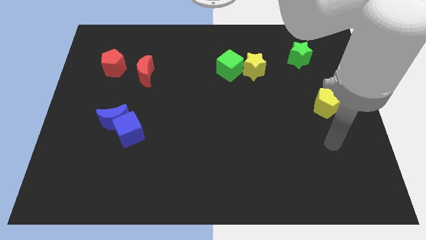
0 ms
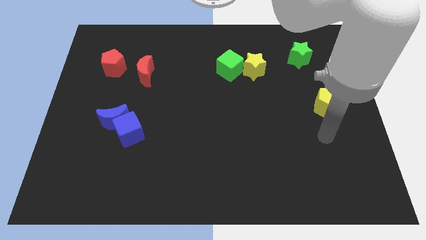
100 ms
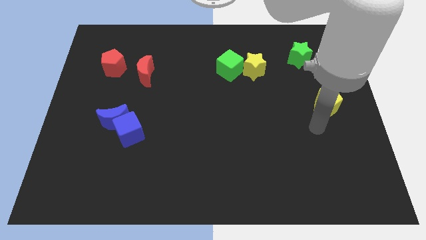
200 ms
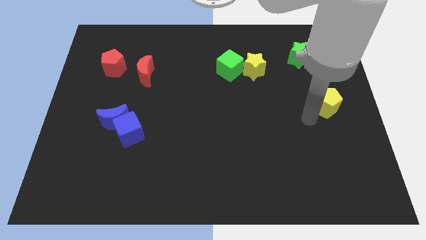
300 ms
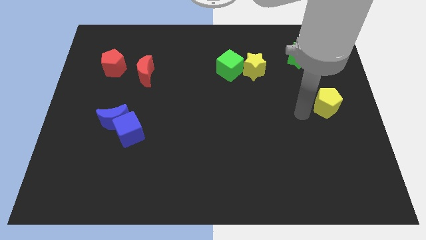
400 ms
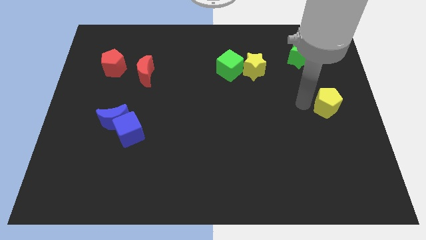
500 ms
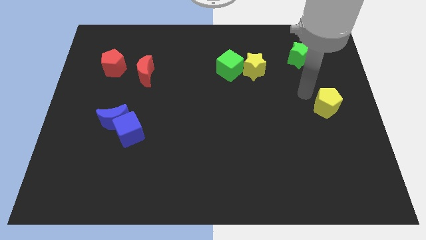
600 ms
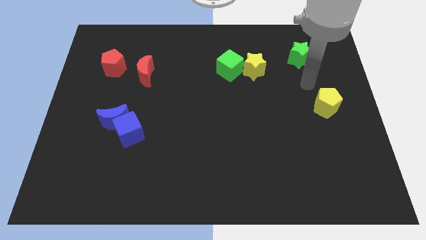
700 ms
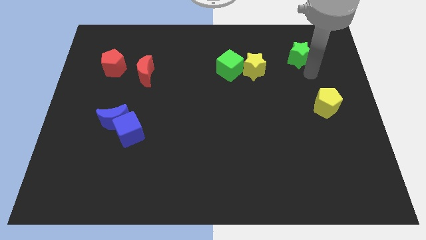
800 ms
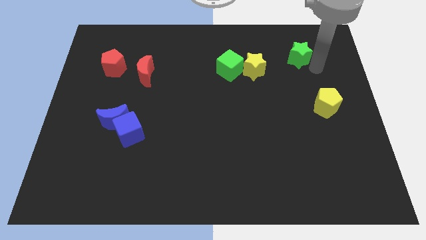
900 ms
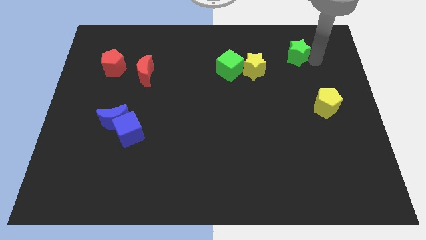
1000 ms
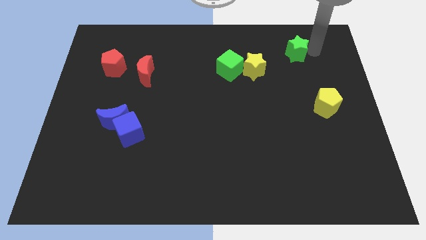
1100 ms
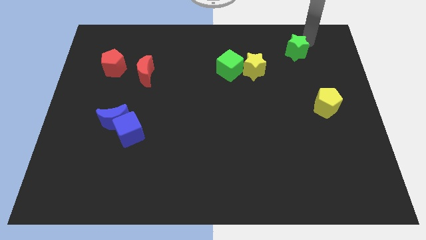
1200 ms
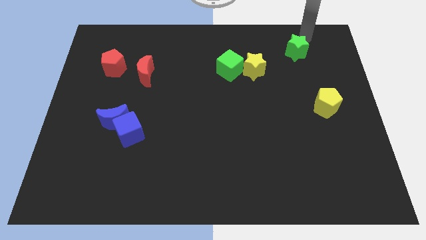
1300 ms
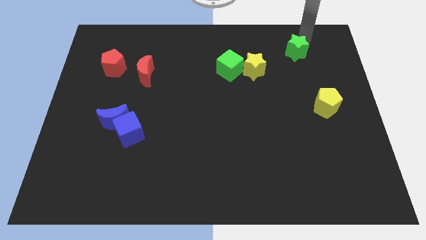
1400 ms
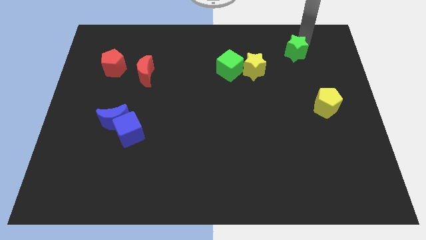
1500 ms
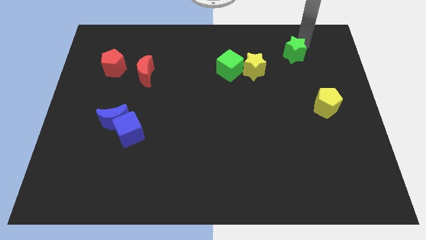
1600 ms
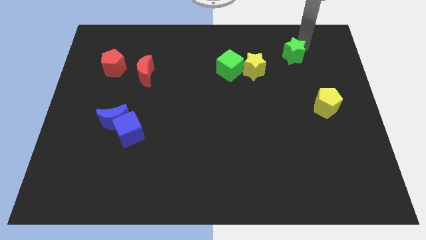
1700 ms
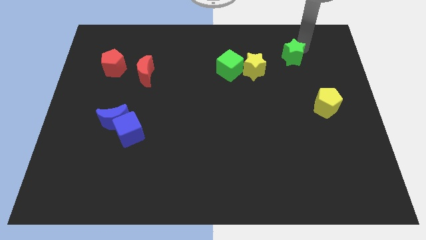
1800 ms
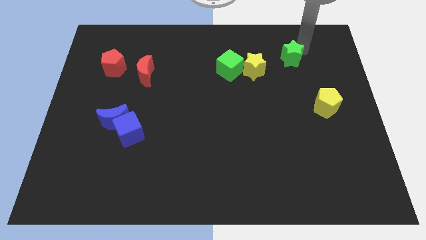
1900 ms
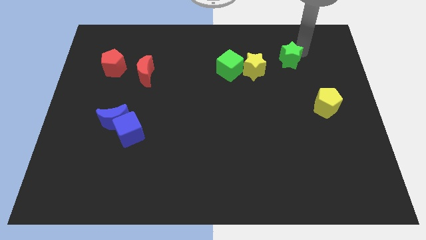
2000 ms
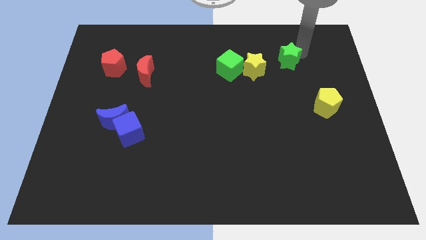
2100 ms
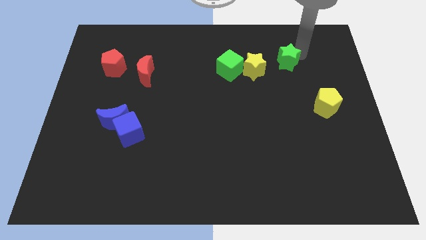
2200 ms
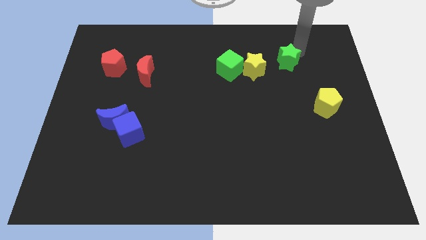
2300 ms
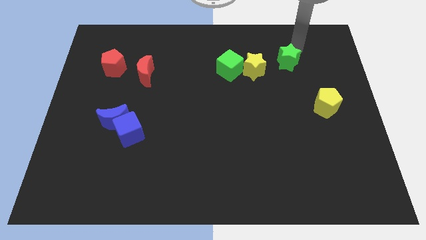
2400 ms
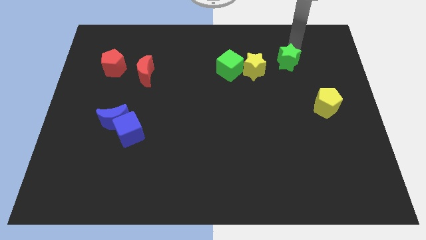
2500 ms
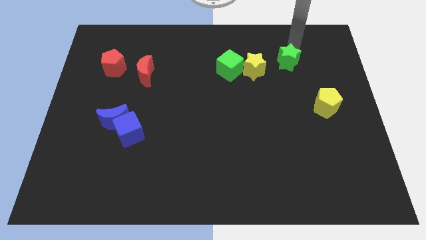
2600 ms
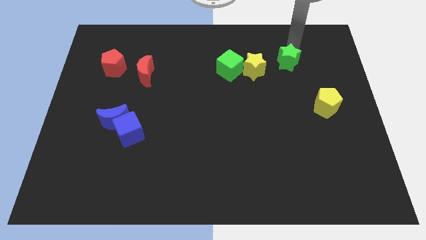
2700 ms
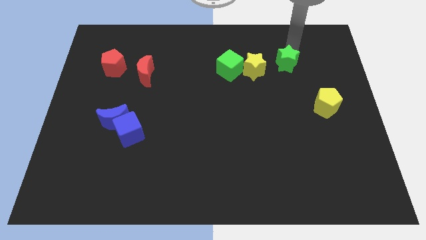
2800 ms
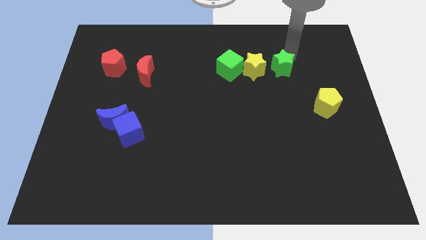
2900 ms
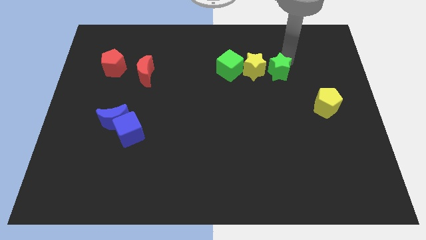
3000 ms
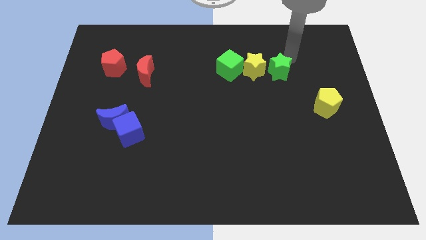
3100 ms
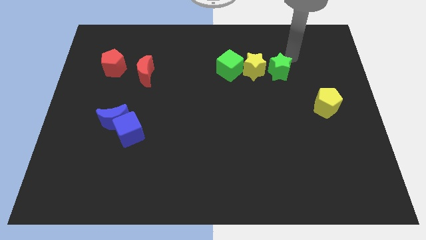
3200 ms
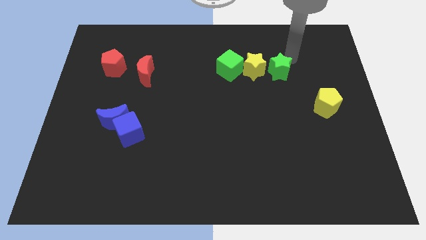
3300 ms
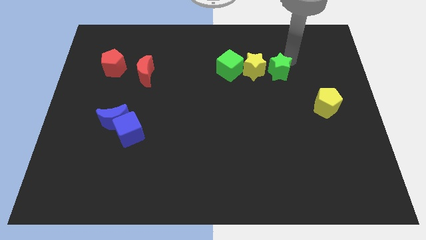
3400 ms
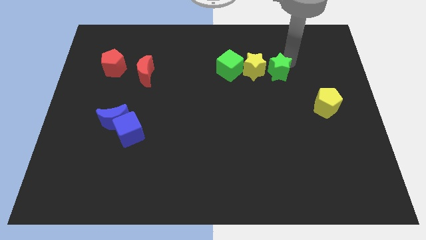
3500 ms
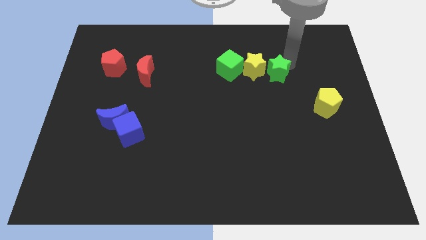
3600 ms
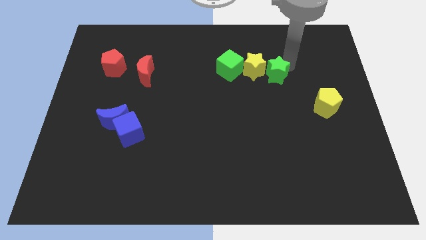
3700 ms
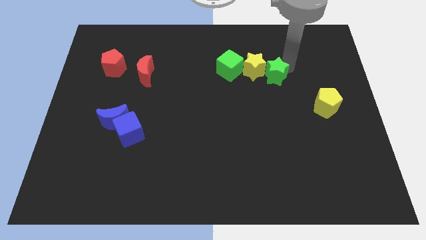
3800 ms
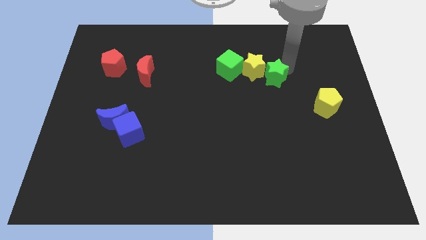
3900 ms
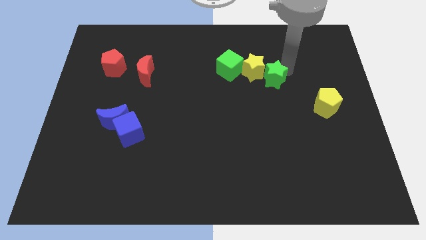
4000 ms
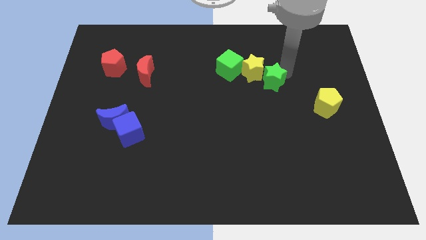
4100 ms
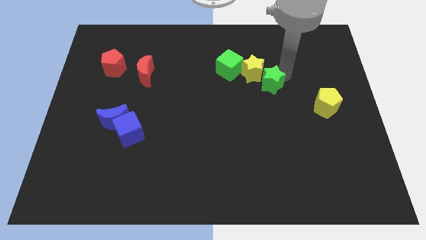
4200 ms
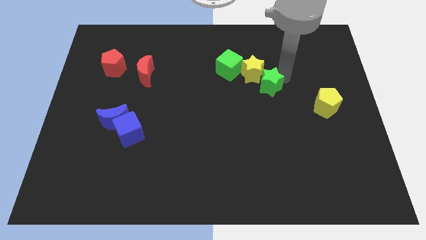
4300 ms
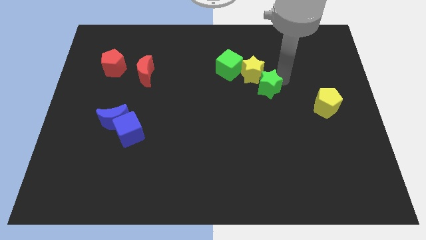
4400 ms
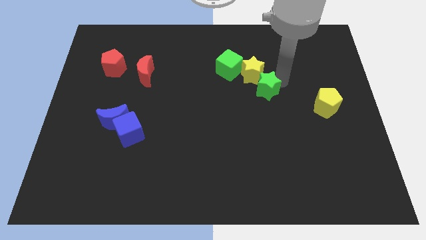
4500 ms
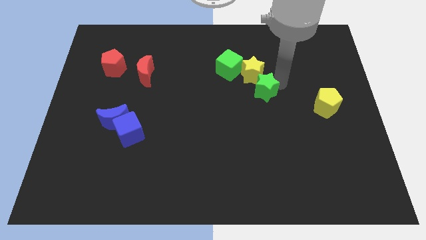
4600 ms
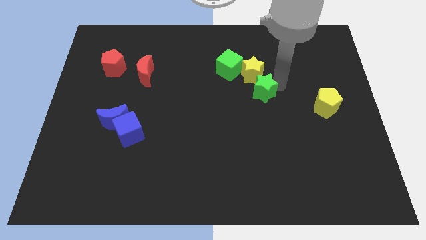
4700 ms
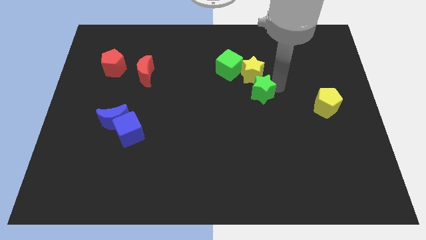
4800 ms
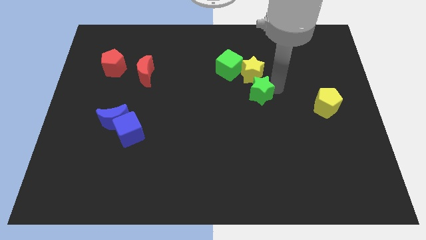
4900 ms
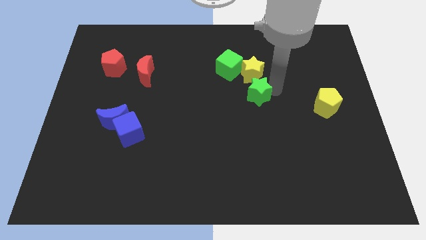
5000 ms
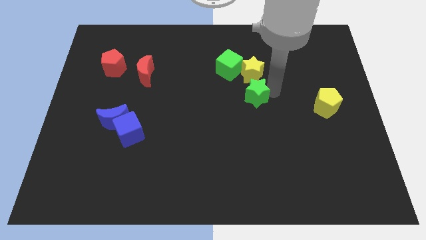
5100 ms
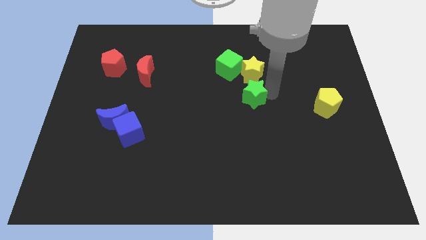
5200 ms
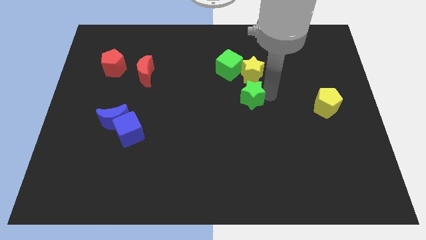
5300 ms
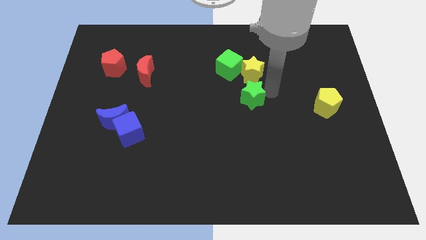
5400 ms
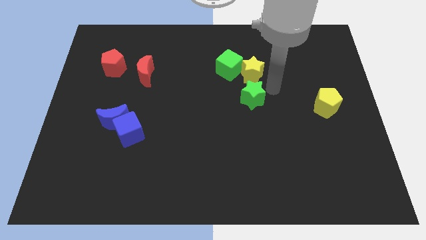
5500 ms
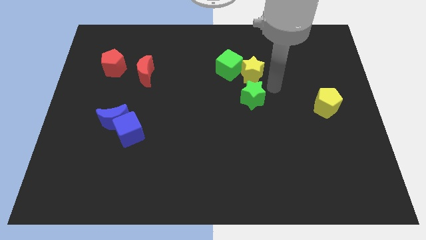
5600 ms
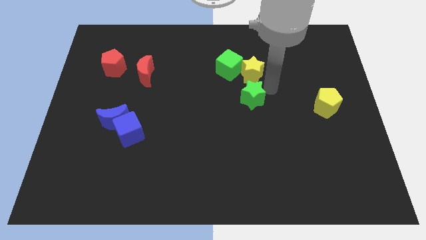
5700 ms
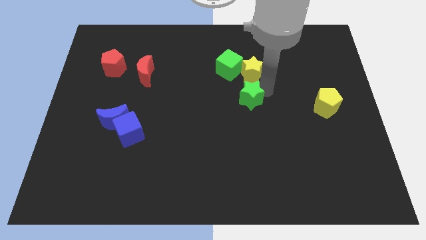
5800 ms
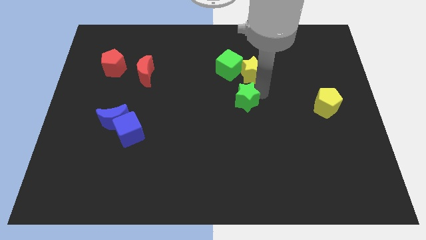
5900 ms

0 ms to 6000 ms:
move the green star down and left

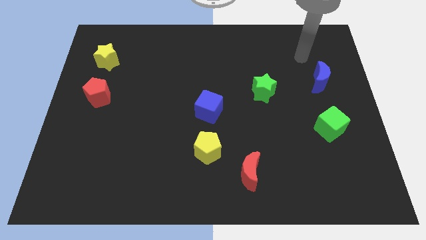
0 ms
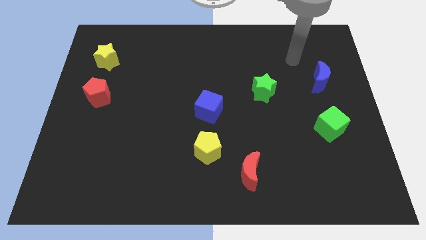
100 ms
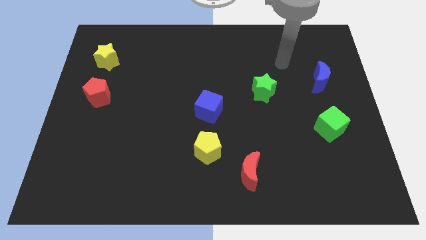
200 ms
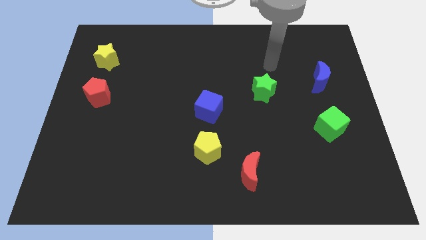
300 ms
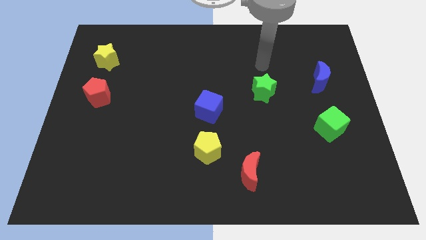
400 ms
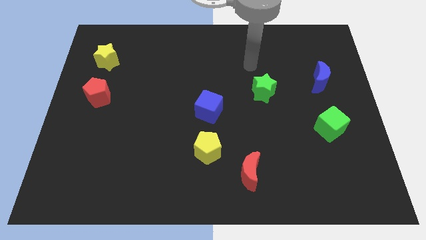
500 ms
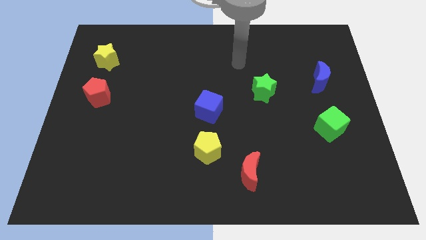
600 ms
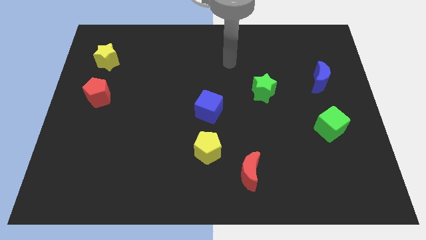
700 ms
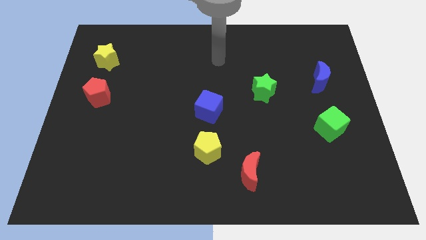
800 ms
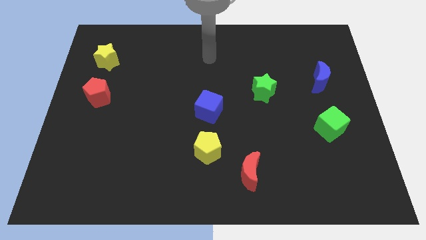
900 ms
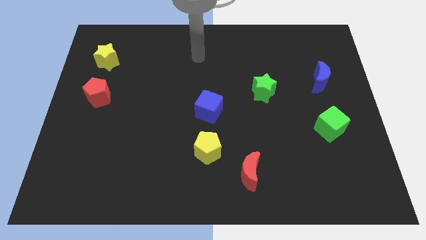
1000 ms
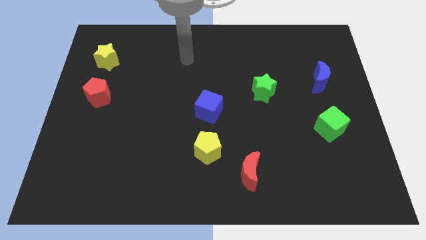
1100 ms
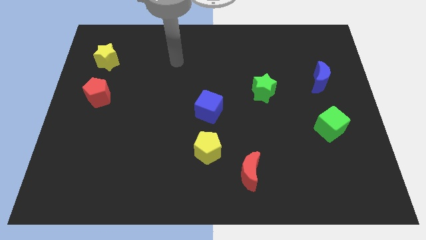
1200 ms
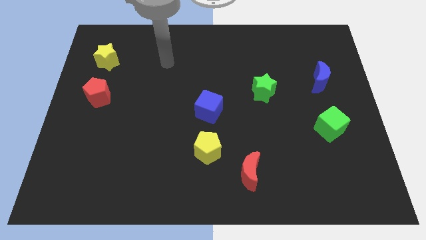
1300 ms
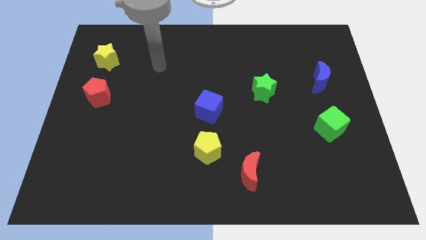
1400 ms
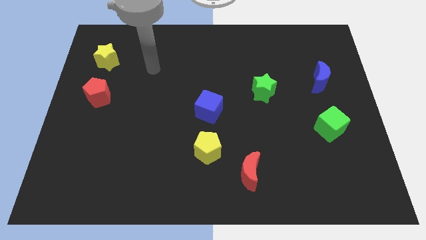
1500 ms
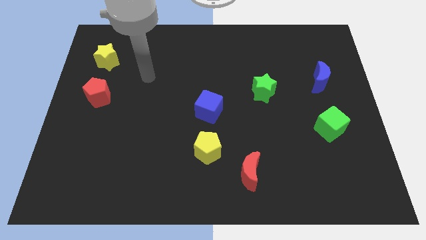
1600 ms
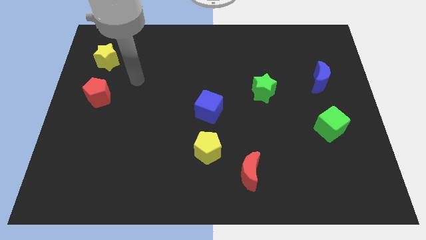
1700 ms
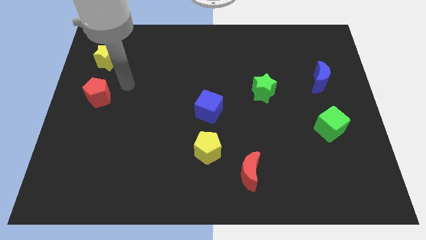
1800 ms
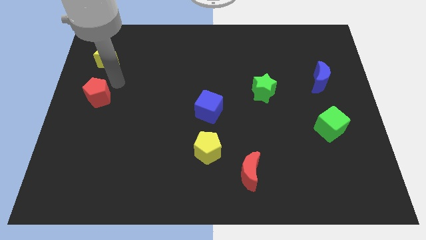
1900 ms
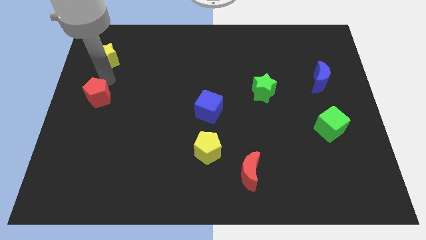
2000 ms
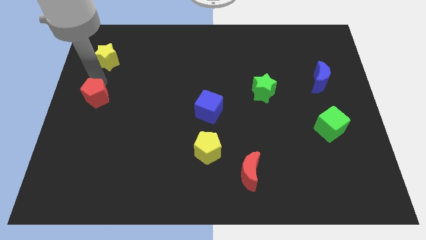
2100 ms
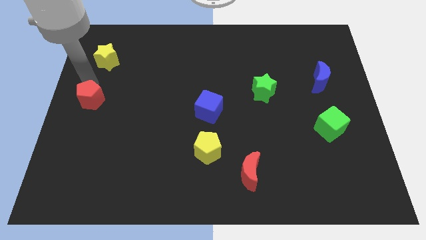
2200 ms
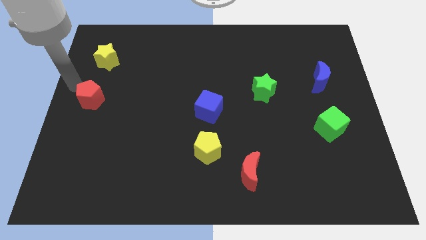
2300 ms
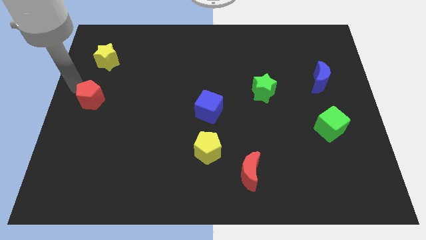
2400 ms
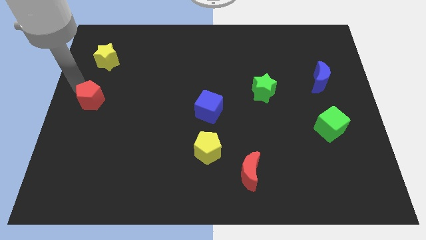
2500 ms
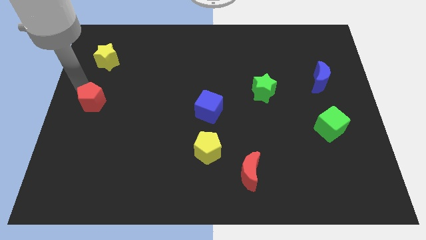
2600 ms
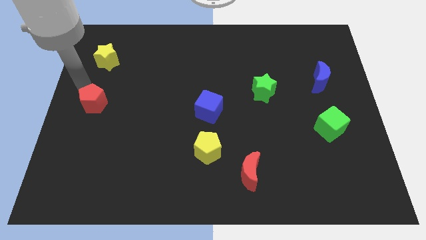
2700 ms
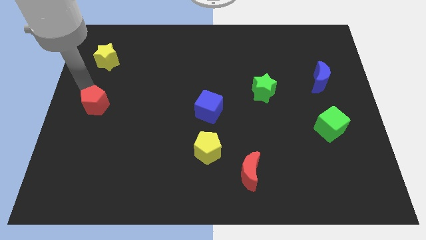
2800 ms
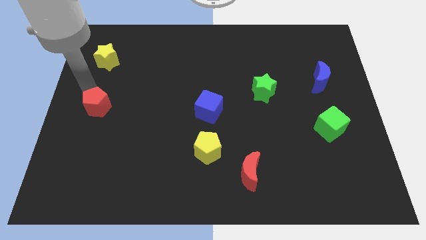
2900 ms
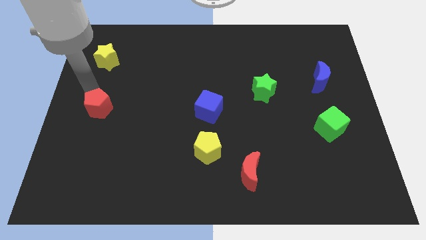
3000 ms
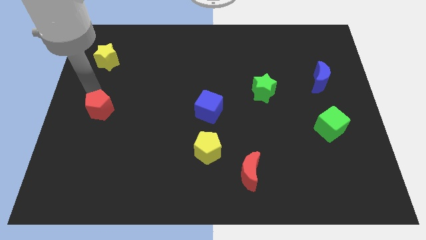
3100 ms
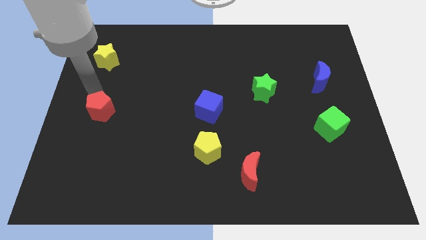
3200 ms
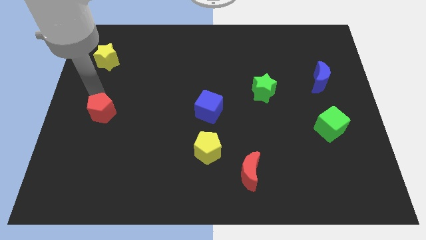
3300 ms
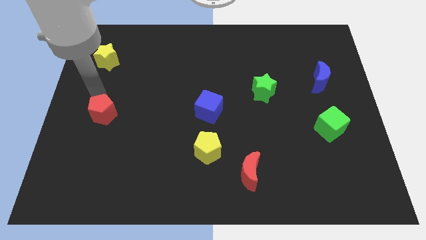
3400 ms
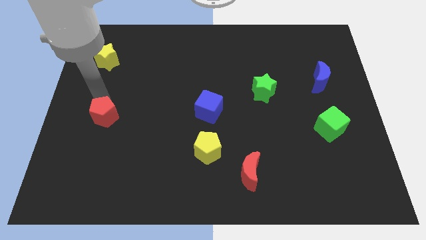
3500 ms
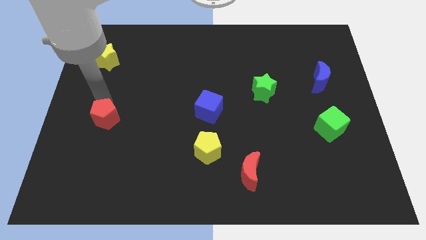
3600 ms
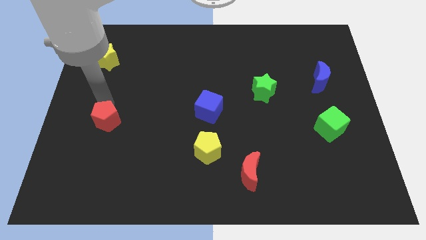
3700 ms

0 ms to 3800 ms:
push the red pentagon down and then right a little bit
